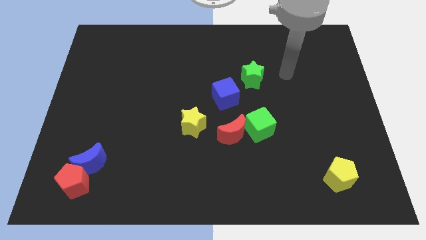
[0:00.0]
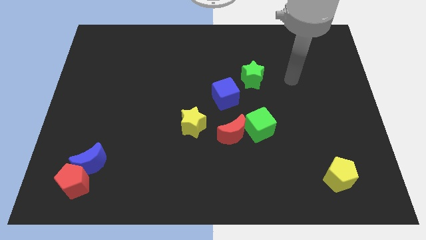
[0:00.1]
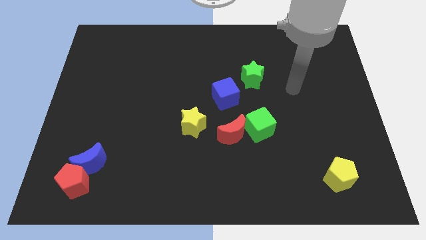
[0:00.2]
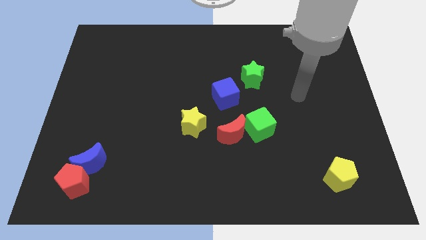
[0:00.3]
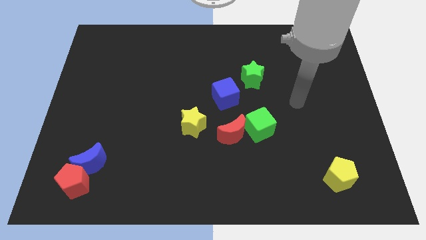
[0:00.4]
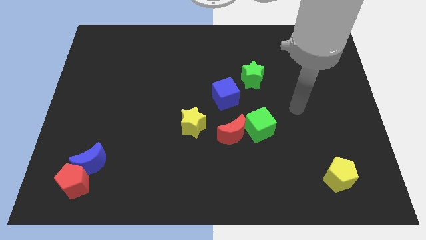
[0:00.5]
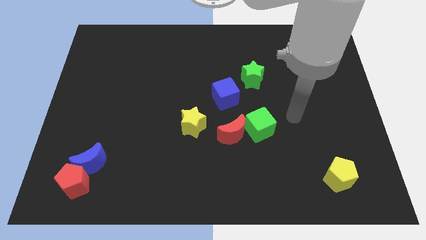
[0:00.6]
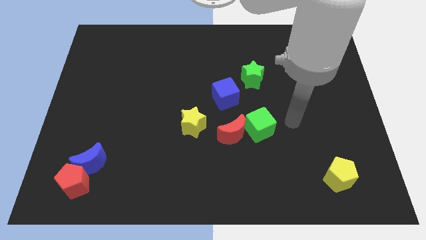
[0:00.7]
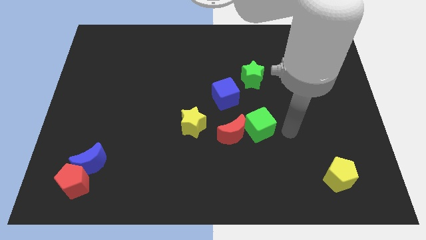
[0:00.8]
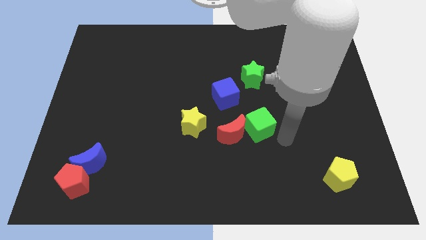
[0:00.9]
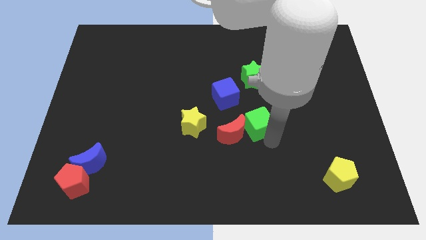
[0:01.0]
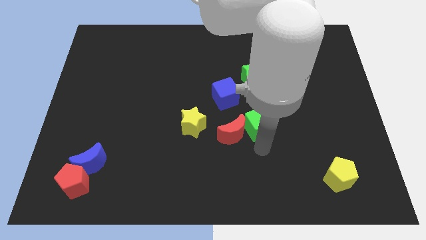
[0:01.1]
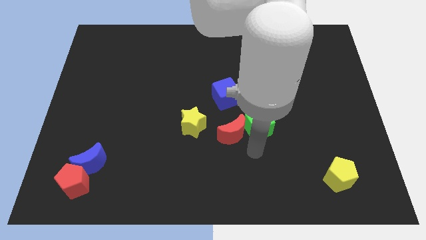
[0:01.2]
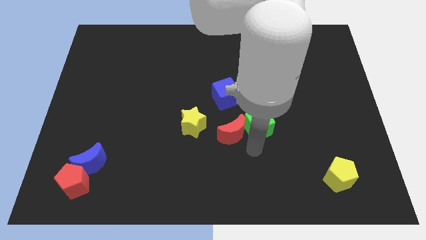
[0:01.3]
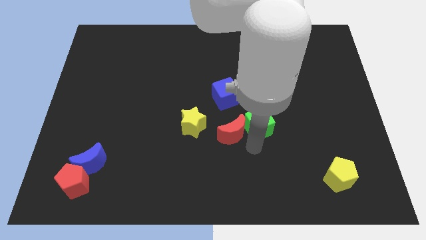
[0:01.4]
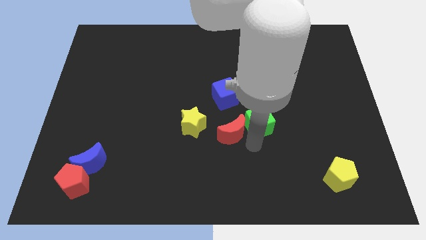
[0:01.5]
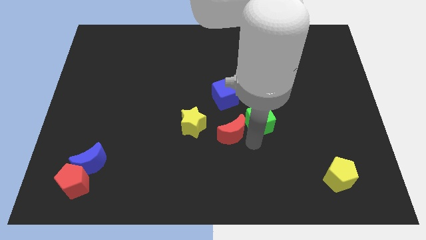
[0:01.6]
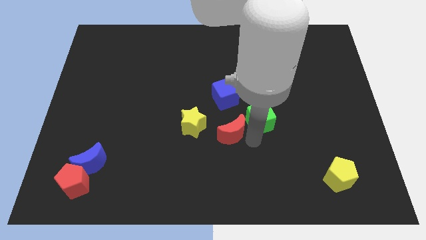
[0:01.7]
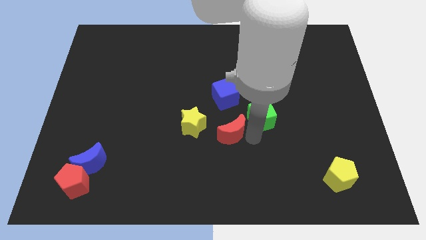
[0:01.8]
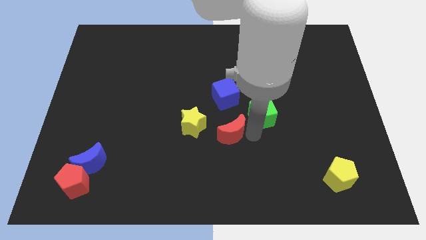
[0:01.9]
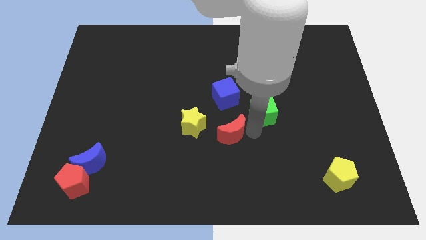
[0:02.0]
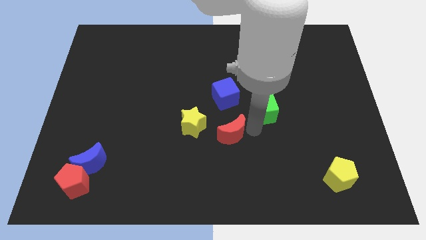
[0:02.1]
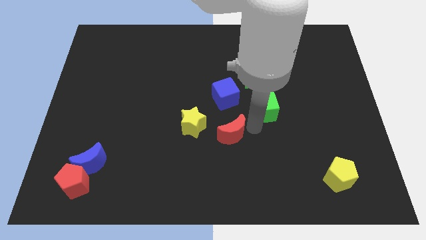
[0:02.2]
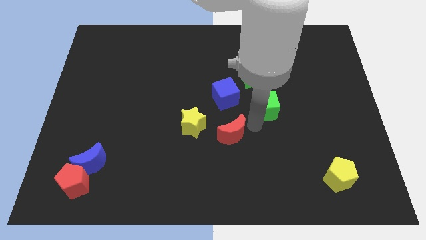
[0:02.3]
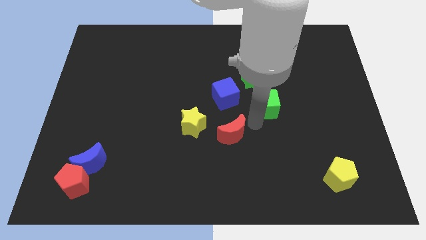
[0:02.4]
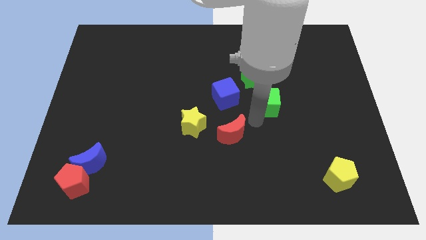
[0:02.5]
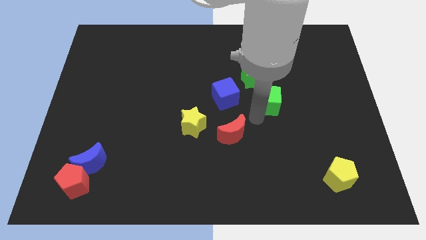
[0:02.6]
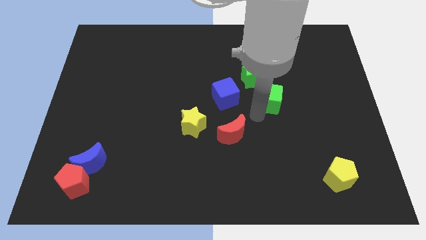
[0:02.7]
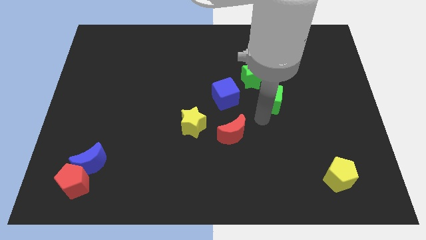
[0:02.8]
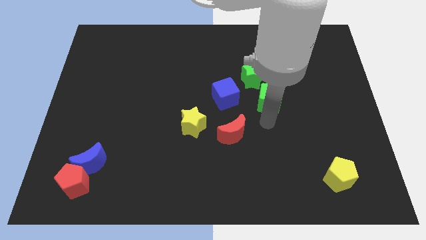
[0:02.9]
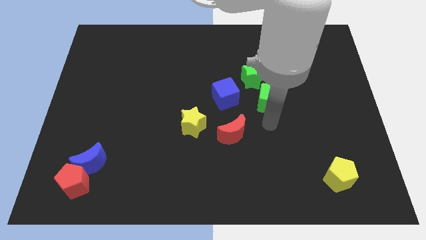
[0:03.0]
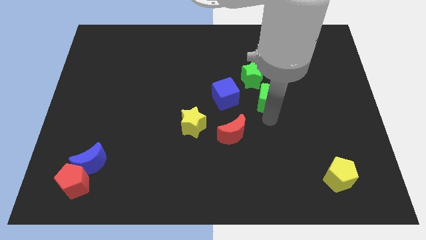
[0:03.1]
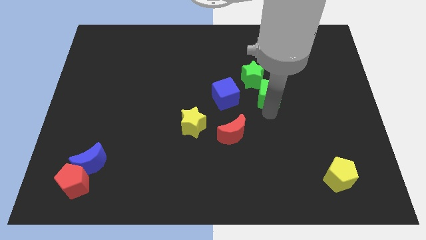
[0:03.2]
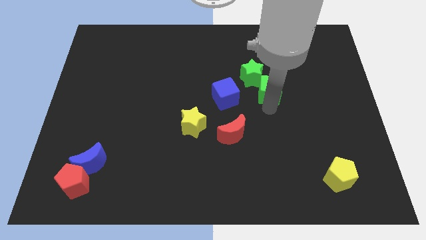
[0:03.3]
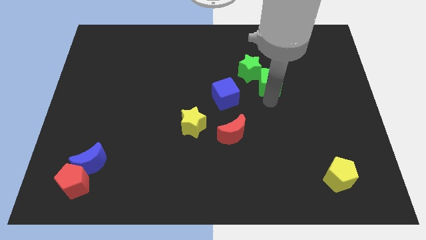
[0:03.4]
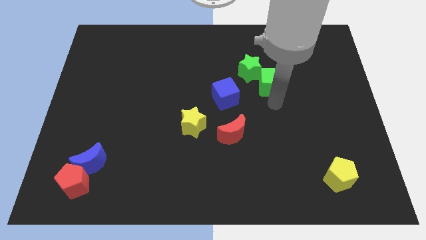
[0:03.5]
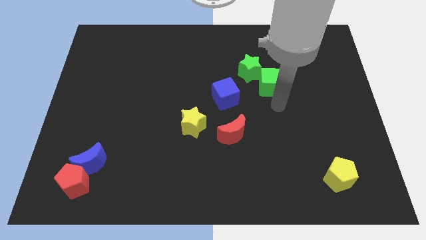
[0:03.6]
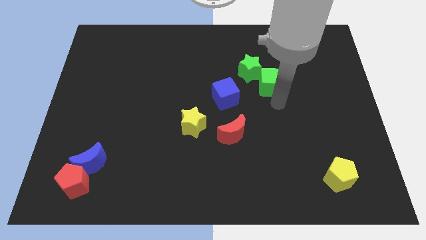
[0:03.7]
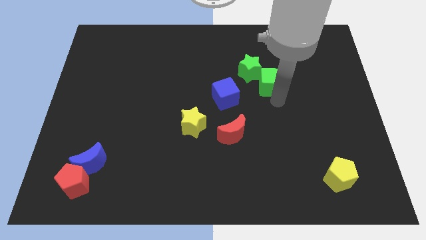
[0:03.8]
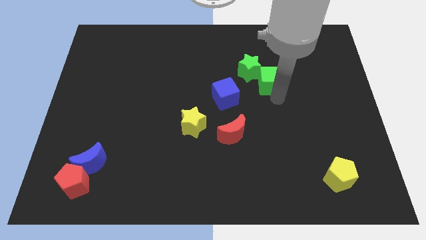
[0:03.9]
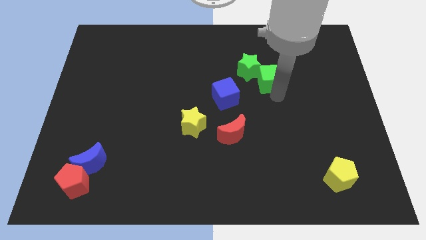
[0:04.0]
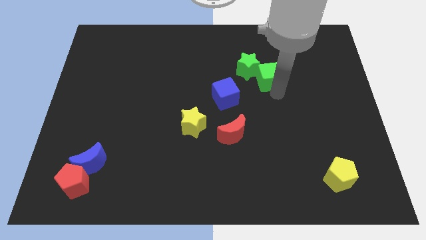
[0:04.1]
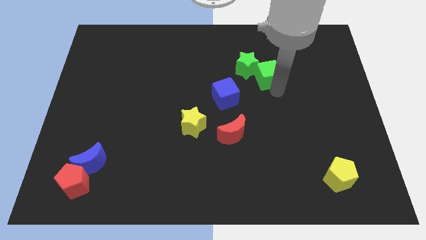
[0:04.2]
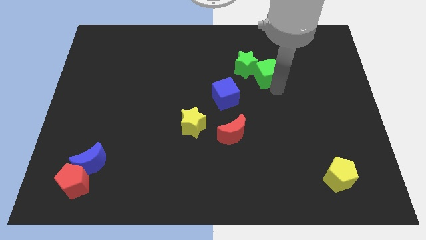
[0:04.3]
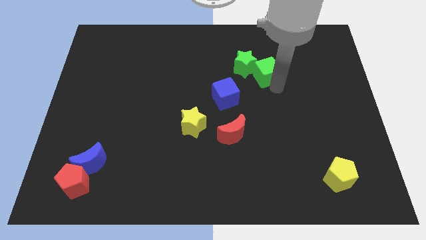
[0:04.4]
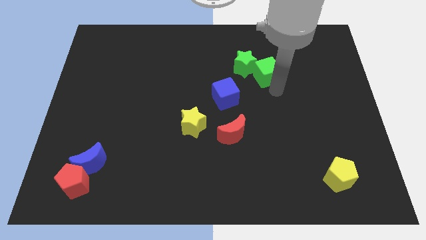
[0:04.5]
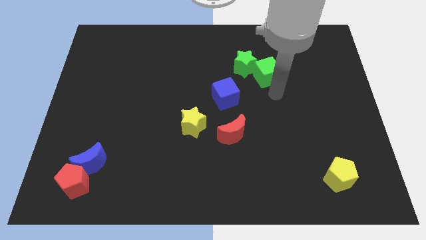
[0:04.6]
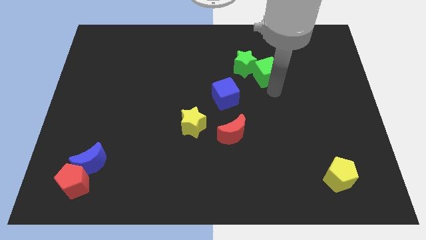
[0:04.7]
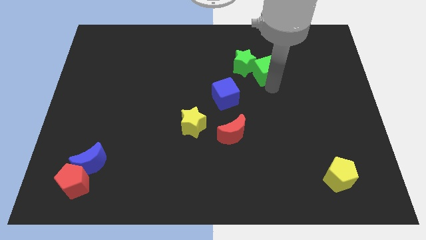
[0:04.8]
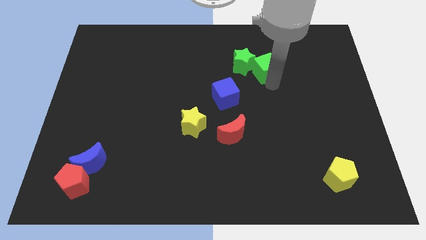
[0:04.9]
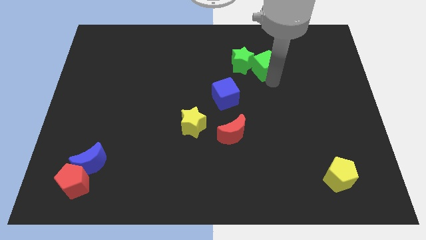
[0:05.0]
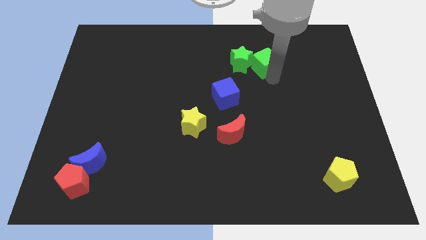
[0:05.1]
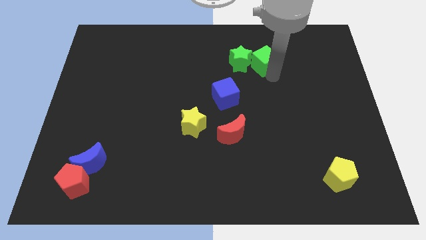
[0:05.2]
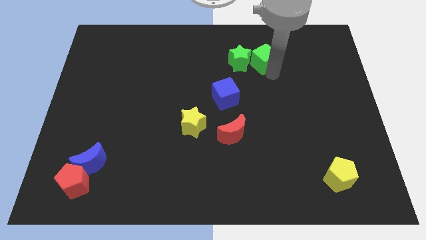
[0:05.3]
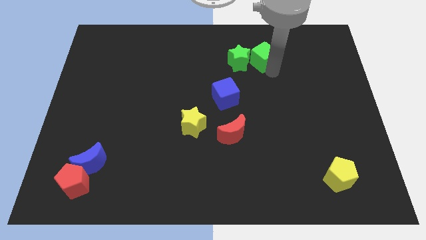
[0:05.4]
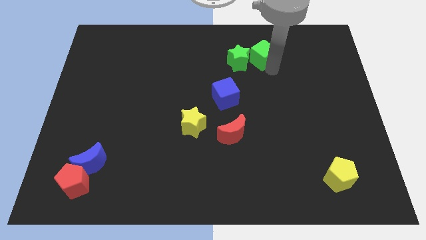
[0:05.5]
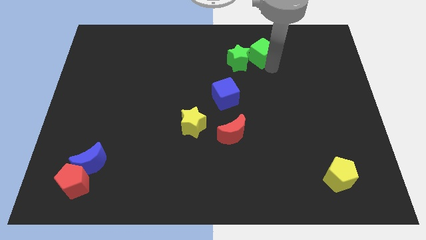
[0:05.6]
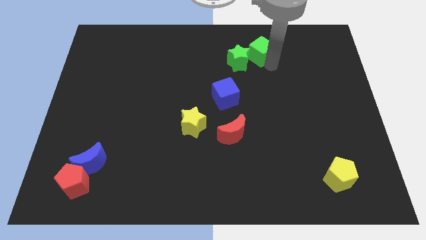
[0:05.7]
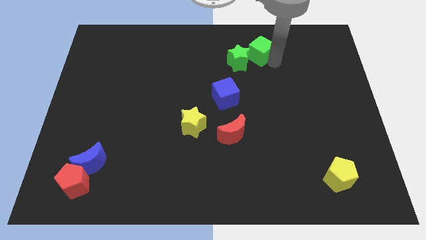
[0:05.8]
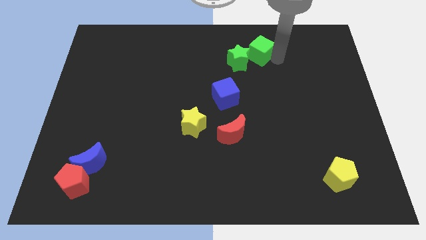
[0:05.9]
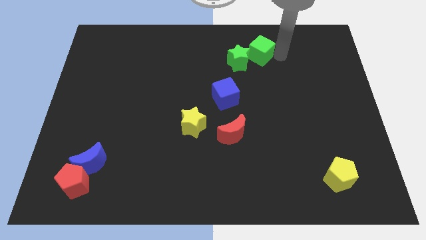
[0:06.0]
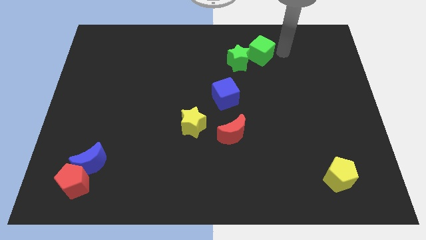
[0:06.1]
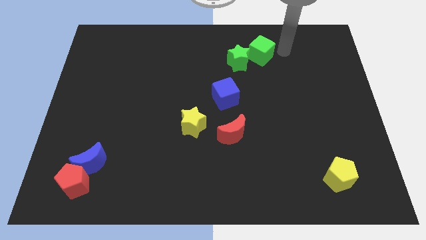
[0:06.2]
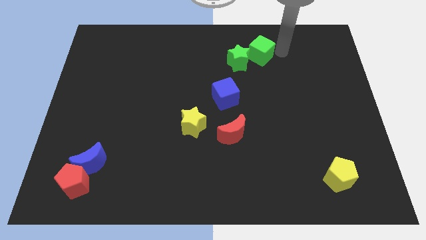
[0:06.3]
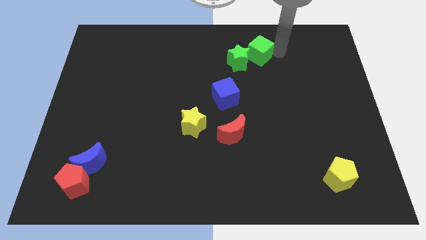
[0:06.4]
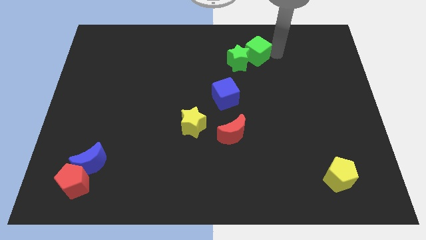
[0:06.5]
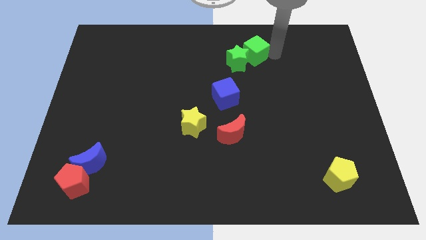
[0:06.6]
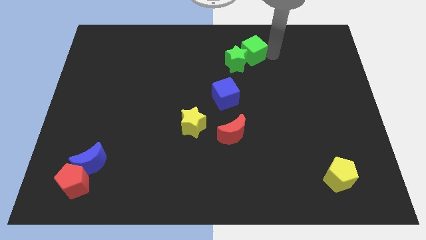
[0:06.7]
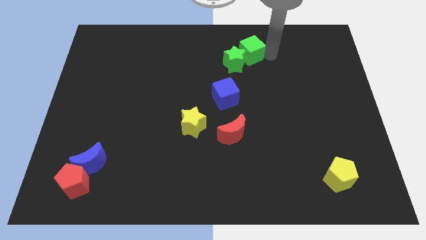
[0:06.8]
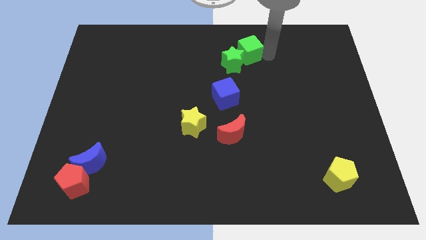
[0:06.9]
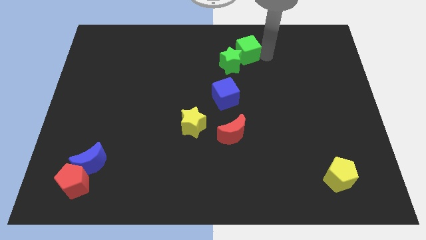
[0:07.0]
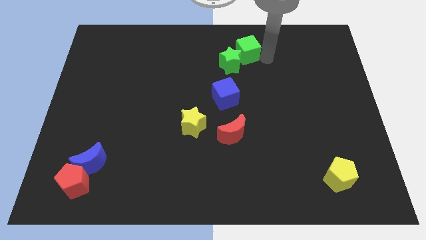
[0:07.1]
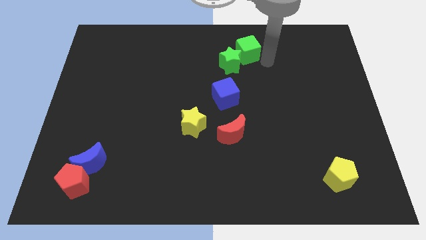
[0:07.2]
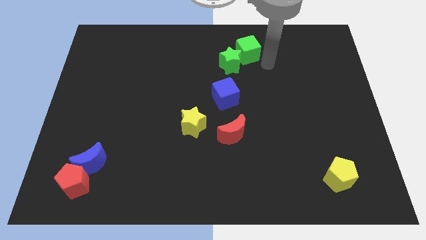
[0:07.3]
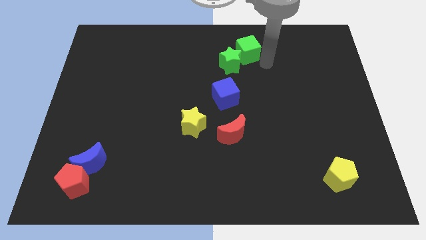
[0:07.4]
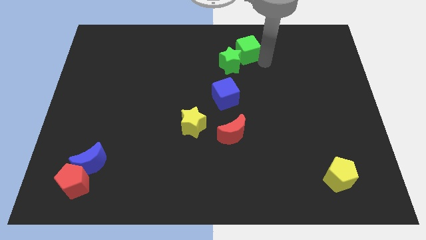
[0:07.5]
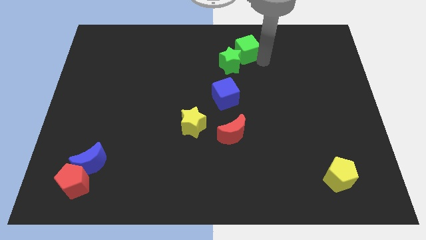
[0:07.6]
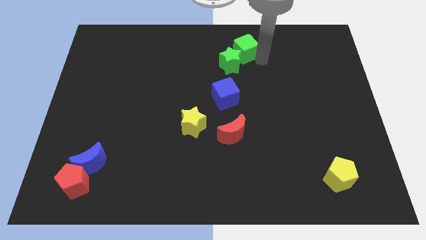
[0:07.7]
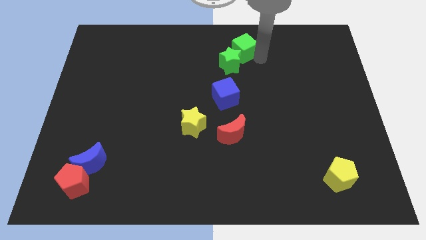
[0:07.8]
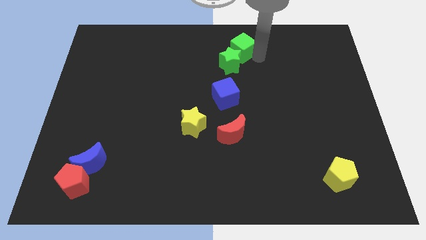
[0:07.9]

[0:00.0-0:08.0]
slide the green cube to the top side
